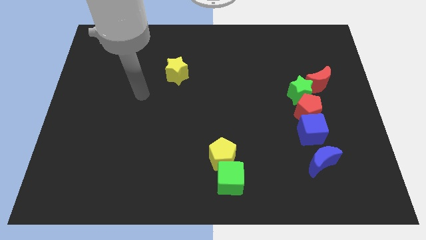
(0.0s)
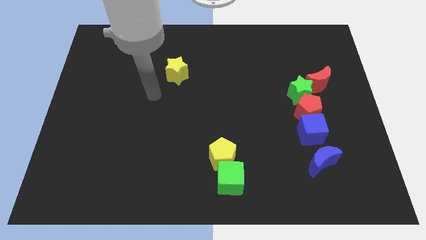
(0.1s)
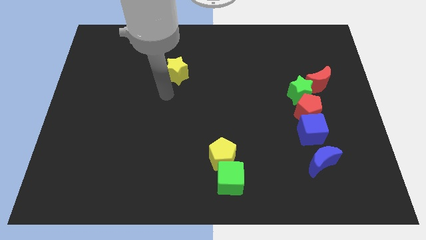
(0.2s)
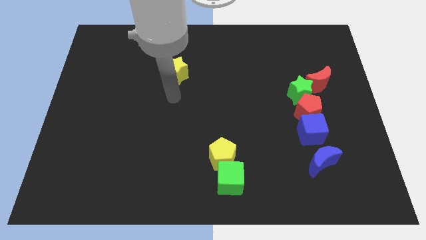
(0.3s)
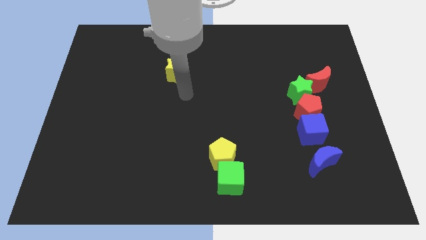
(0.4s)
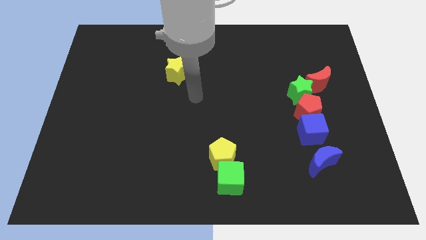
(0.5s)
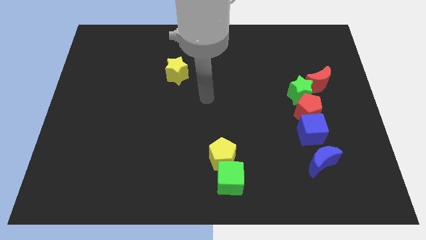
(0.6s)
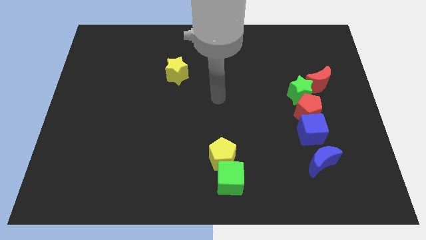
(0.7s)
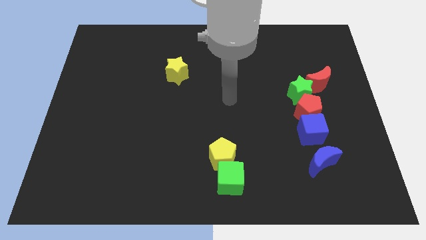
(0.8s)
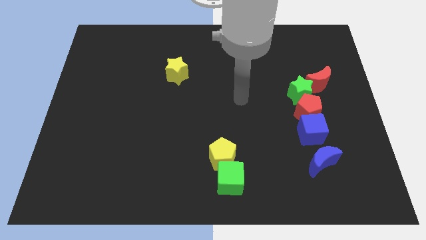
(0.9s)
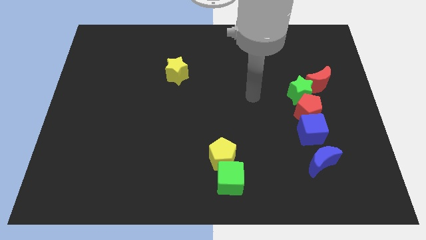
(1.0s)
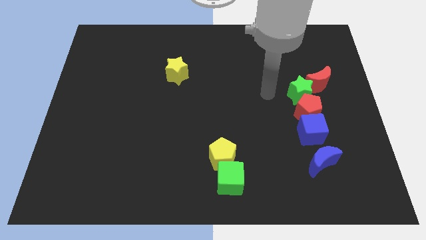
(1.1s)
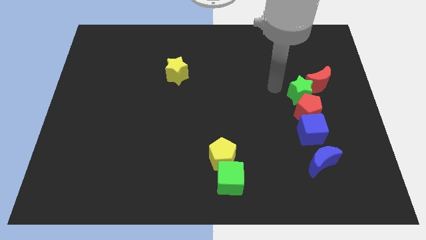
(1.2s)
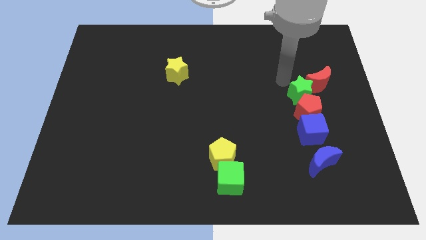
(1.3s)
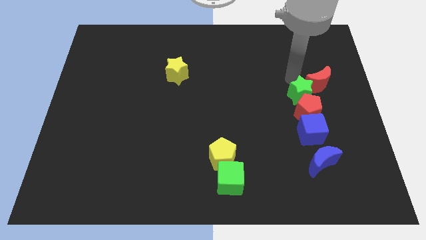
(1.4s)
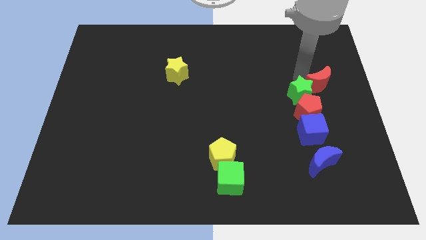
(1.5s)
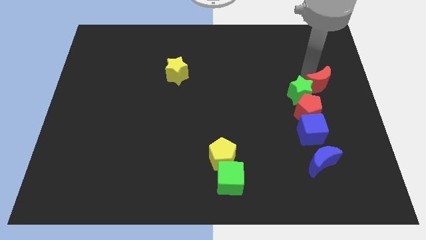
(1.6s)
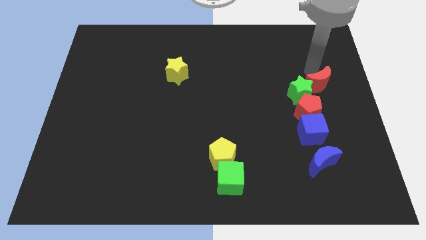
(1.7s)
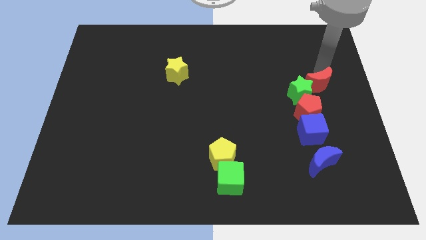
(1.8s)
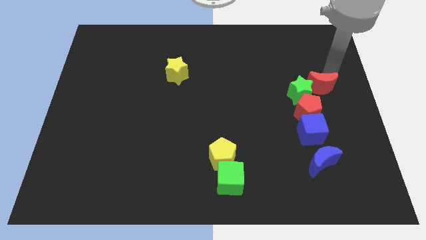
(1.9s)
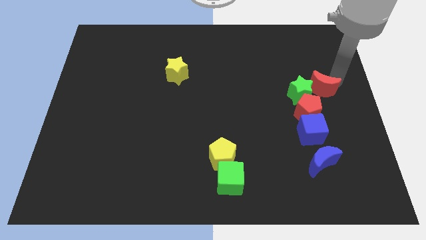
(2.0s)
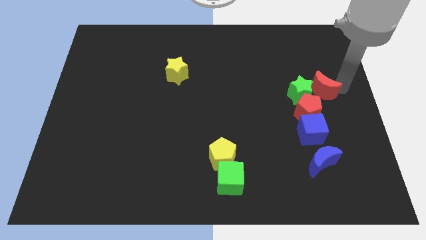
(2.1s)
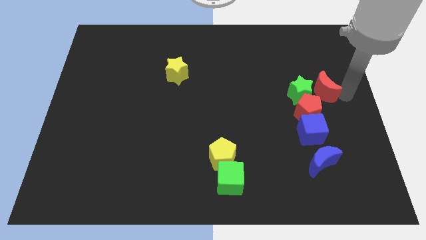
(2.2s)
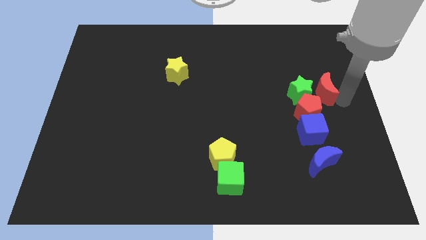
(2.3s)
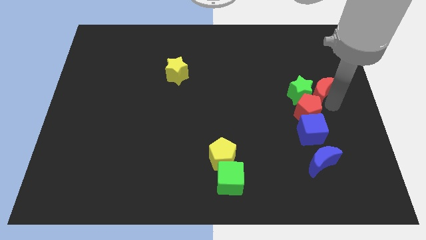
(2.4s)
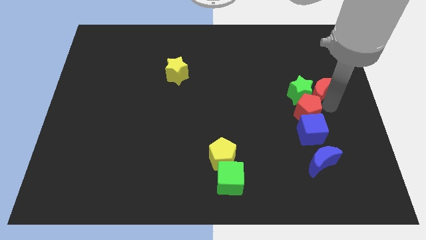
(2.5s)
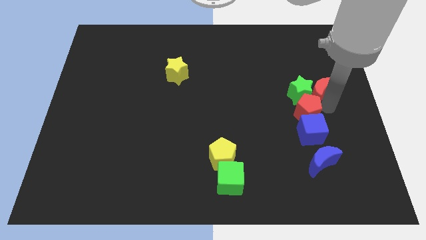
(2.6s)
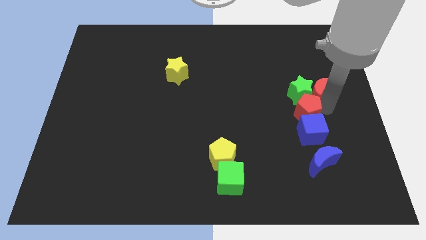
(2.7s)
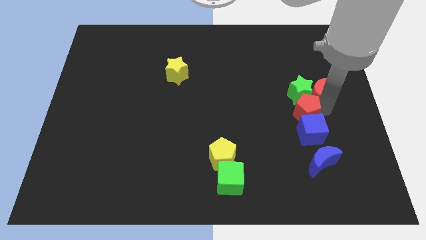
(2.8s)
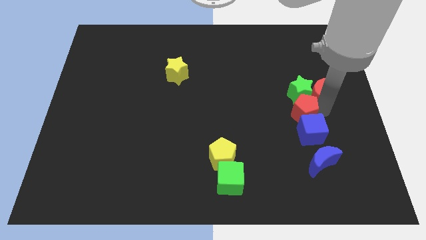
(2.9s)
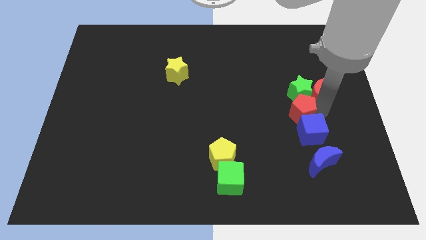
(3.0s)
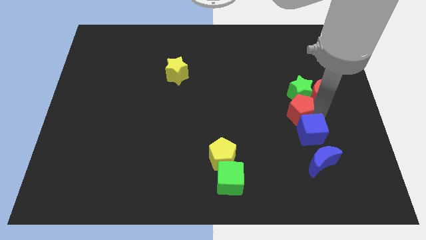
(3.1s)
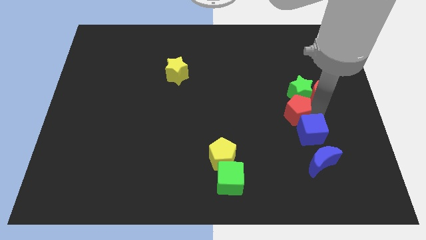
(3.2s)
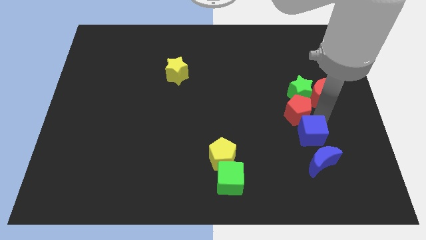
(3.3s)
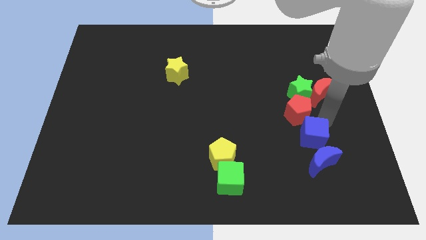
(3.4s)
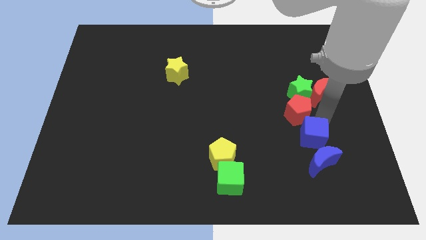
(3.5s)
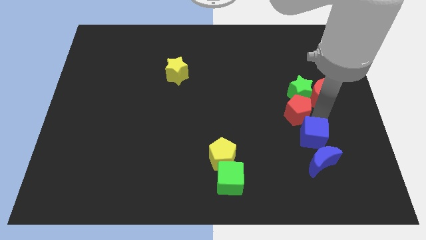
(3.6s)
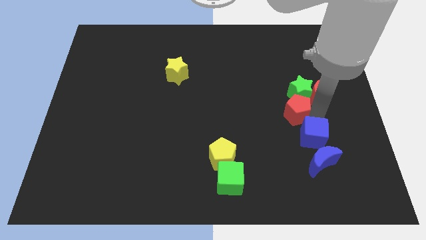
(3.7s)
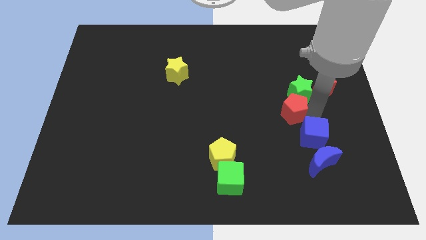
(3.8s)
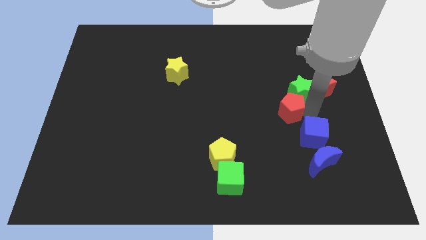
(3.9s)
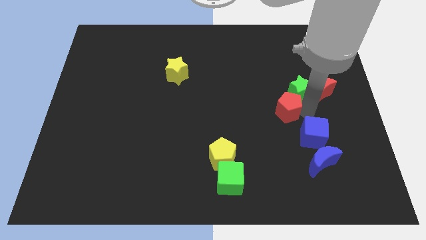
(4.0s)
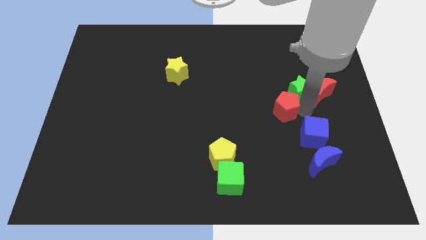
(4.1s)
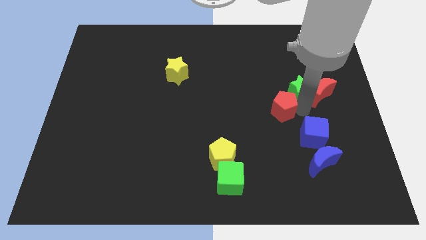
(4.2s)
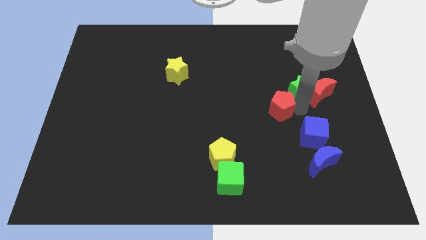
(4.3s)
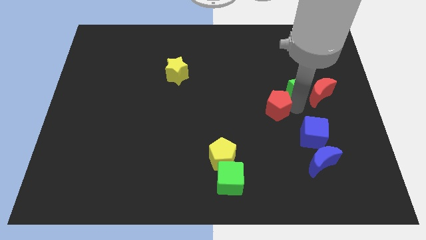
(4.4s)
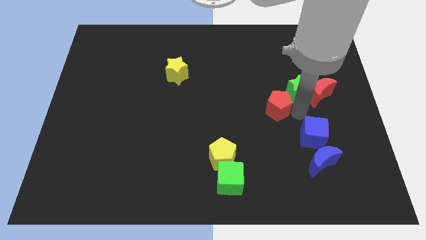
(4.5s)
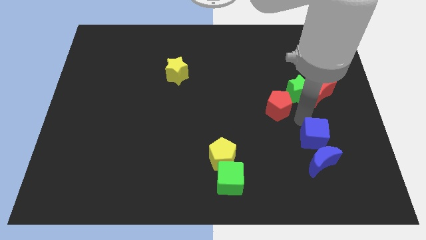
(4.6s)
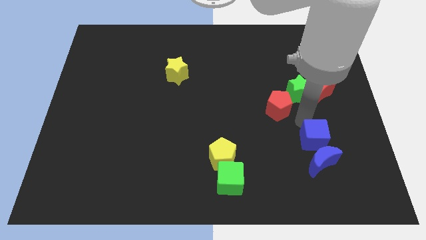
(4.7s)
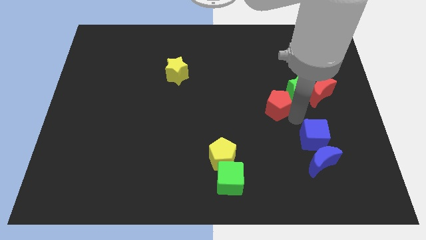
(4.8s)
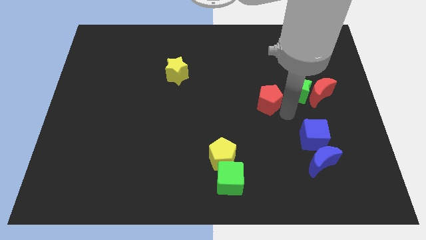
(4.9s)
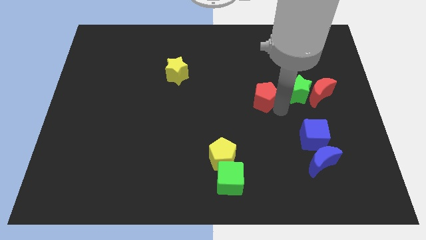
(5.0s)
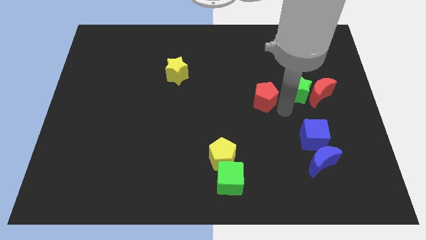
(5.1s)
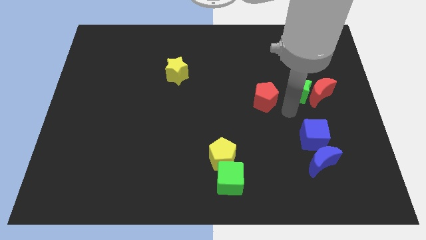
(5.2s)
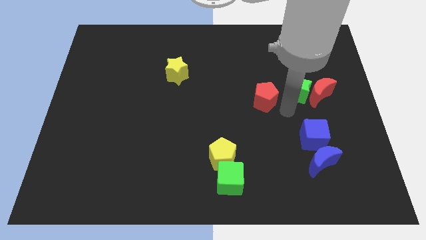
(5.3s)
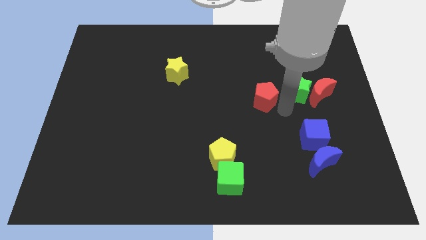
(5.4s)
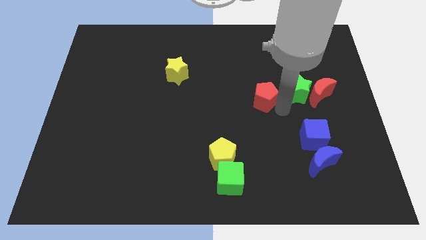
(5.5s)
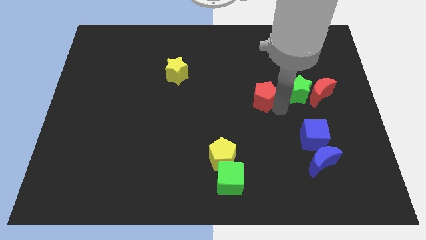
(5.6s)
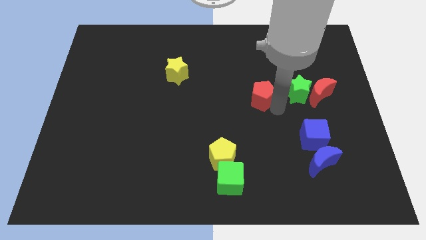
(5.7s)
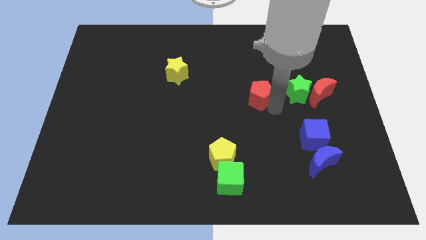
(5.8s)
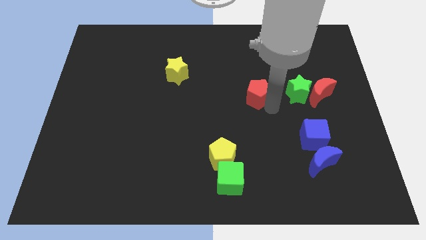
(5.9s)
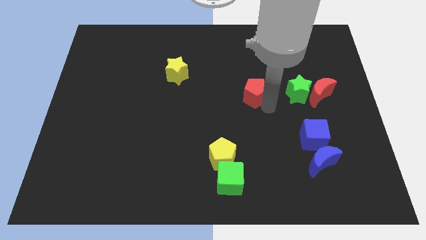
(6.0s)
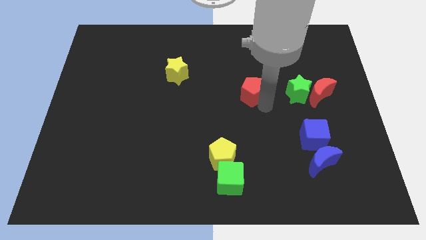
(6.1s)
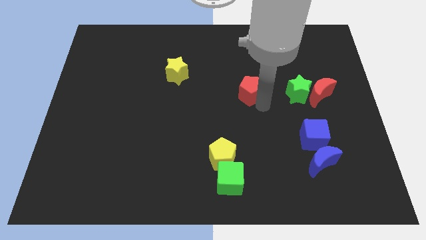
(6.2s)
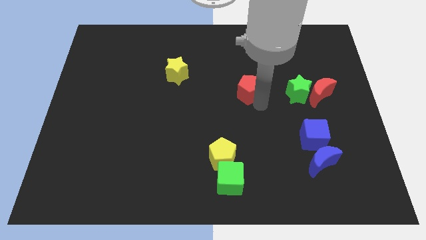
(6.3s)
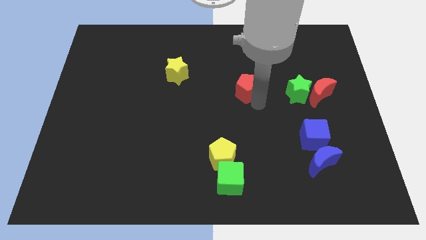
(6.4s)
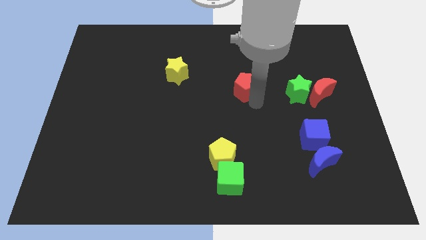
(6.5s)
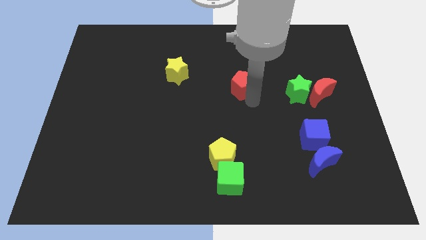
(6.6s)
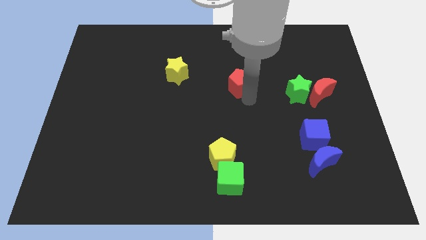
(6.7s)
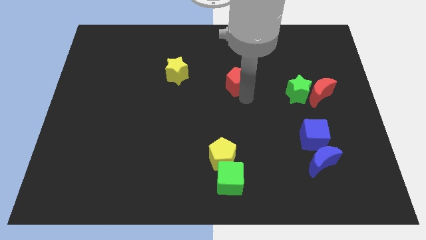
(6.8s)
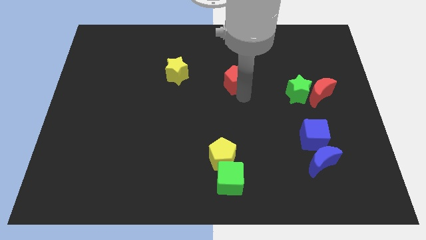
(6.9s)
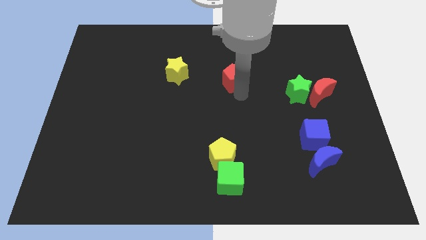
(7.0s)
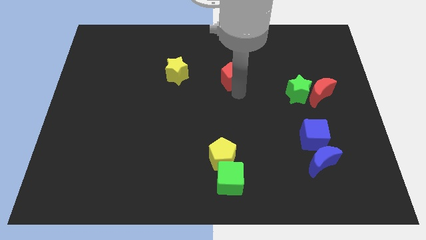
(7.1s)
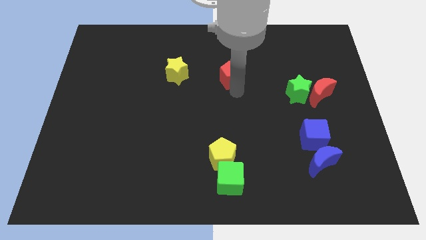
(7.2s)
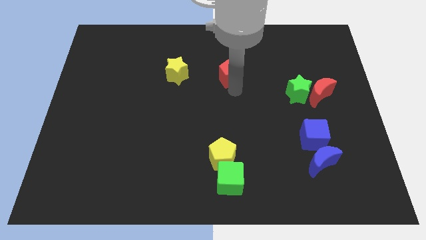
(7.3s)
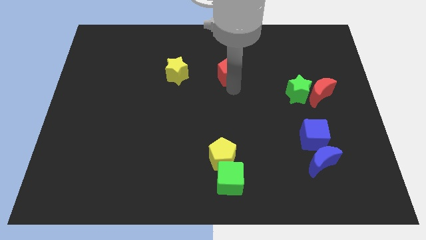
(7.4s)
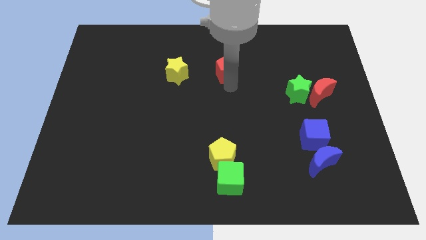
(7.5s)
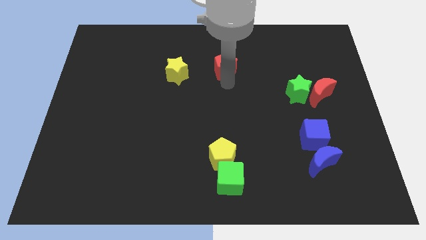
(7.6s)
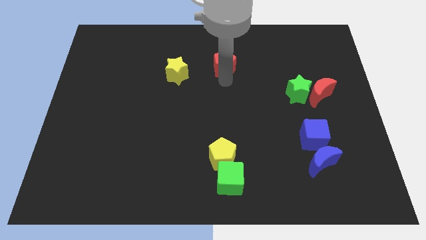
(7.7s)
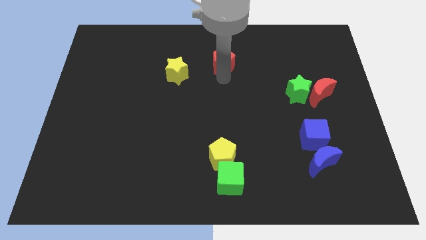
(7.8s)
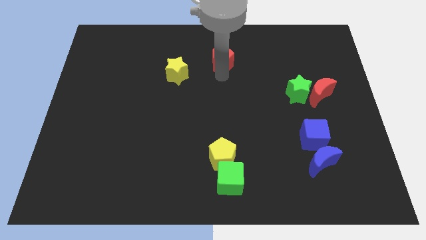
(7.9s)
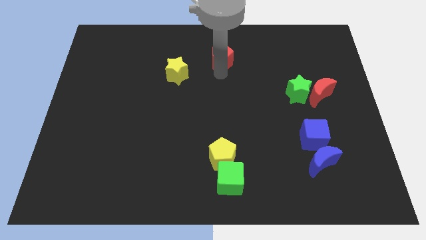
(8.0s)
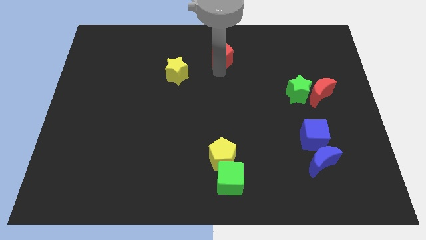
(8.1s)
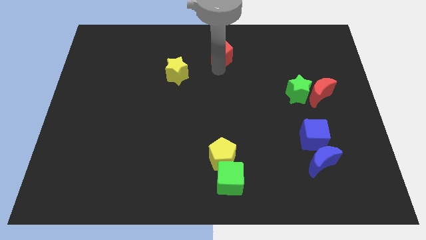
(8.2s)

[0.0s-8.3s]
push the red pentagon to the top side
